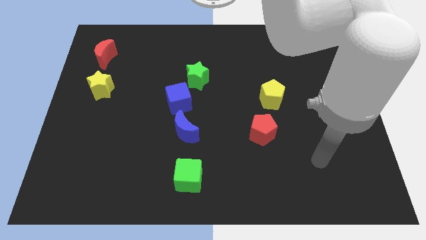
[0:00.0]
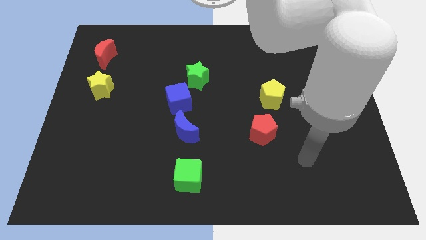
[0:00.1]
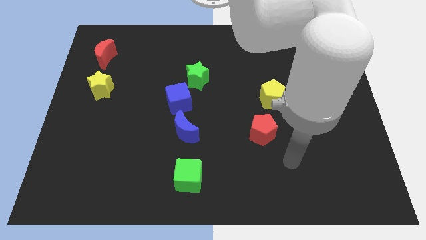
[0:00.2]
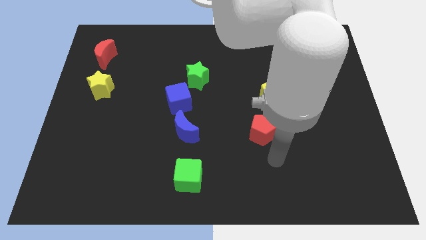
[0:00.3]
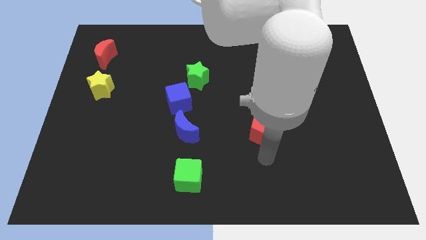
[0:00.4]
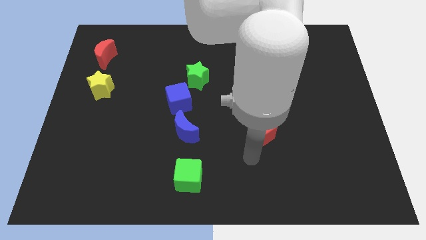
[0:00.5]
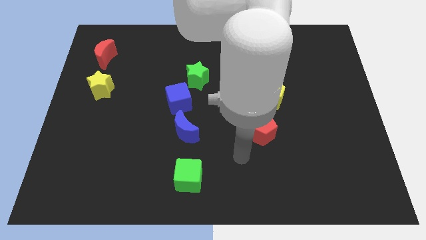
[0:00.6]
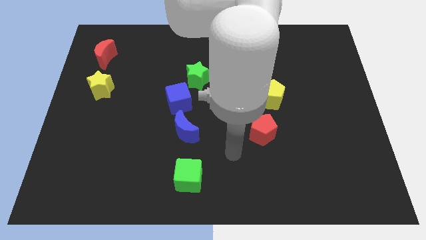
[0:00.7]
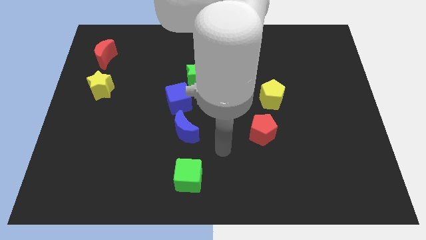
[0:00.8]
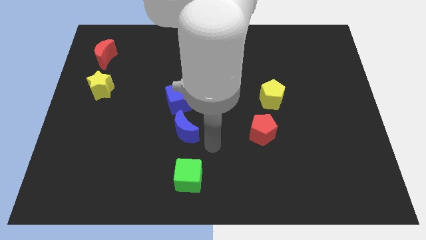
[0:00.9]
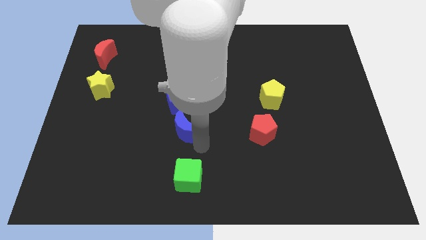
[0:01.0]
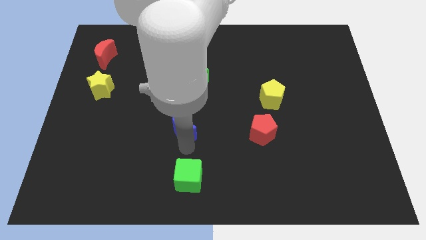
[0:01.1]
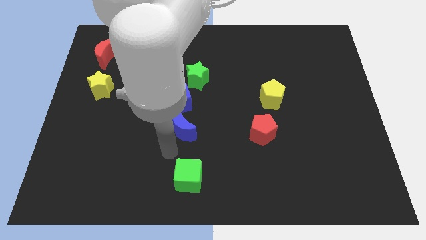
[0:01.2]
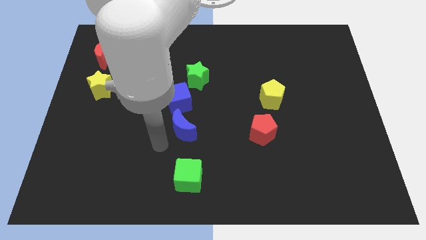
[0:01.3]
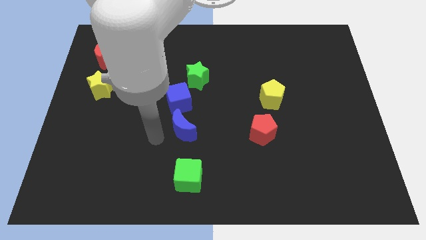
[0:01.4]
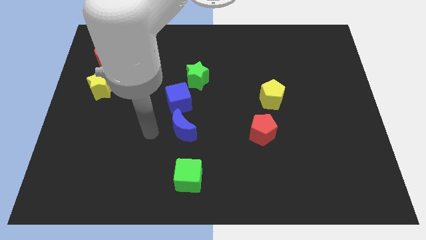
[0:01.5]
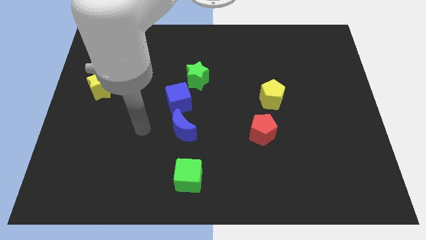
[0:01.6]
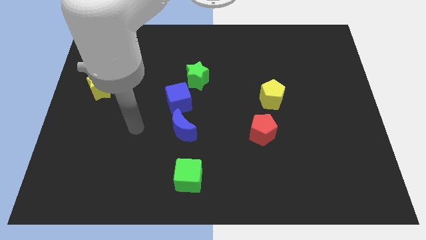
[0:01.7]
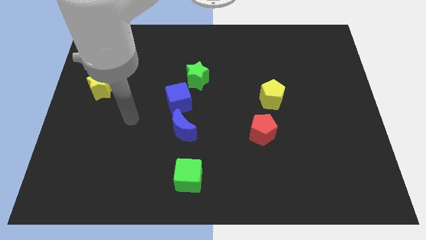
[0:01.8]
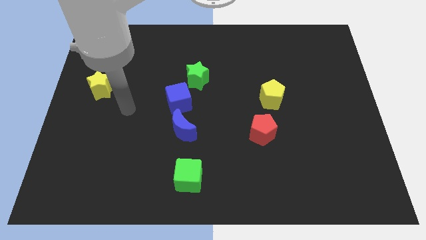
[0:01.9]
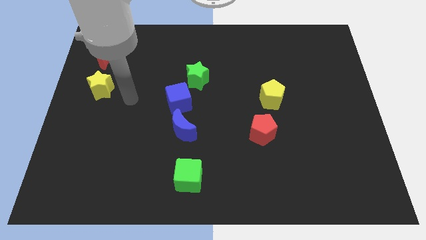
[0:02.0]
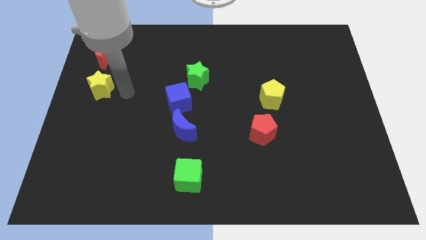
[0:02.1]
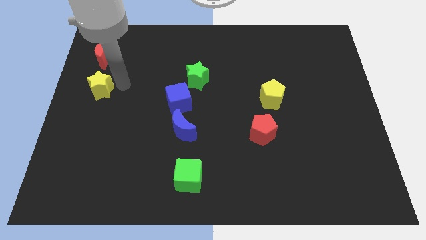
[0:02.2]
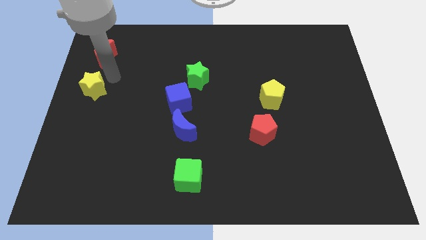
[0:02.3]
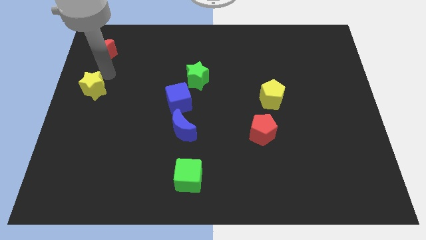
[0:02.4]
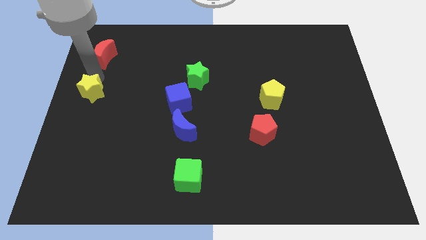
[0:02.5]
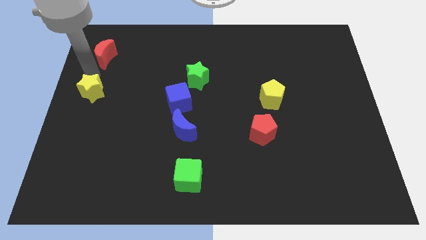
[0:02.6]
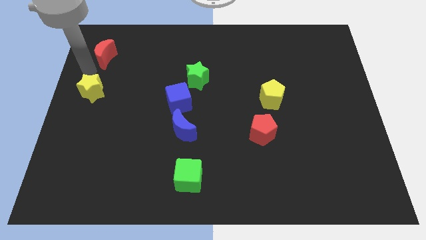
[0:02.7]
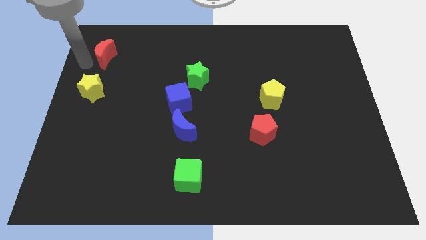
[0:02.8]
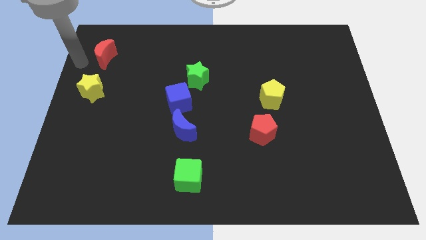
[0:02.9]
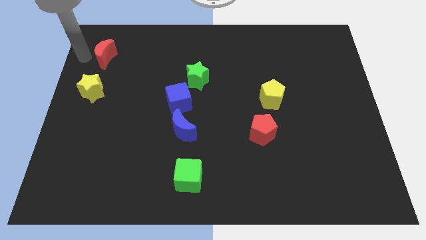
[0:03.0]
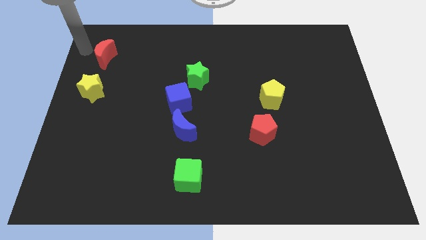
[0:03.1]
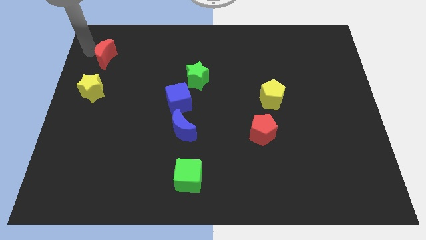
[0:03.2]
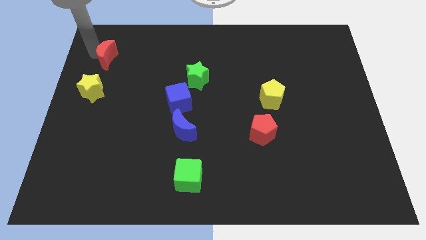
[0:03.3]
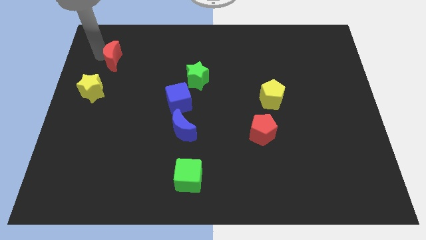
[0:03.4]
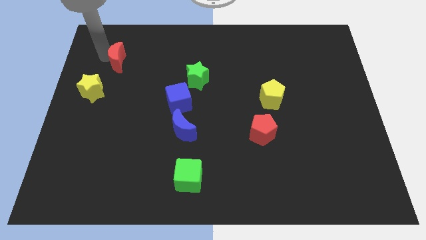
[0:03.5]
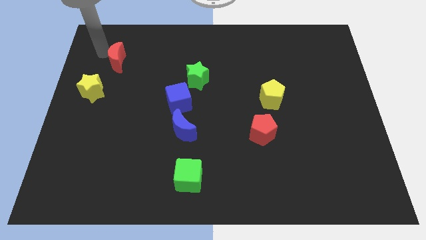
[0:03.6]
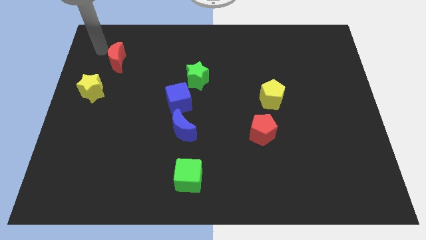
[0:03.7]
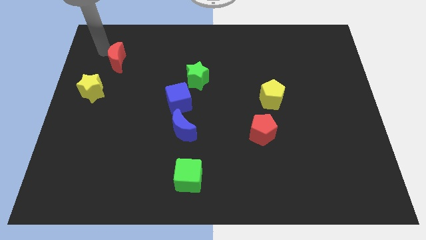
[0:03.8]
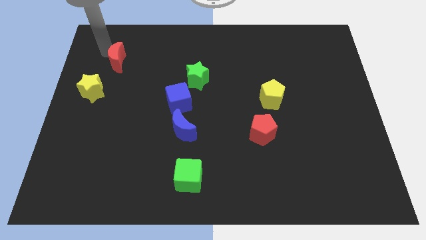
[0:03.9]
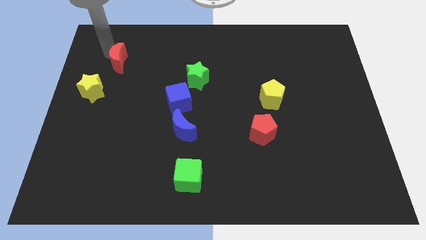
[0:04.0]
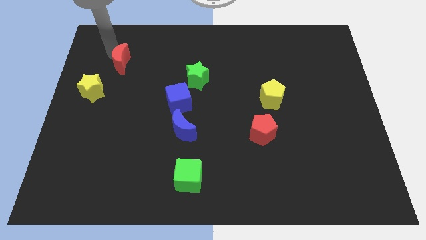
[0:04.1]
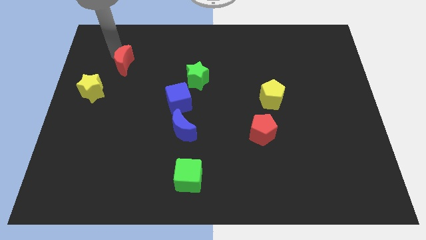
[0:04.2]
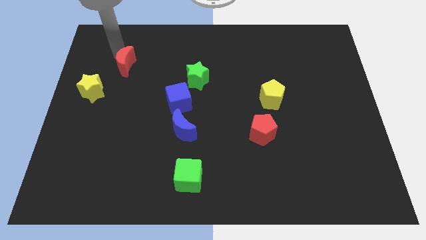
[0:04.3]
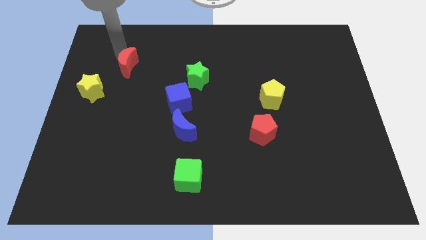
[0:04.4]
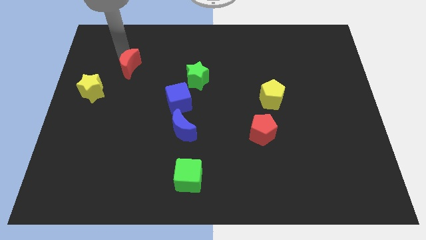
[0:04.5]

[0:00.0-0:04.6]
slightly move the red moon down and right

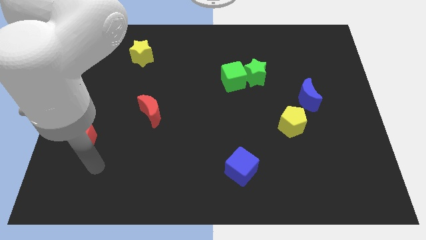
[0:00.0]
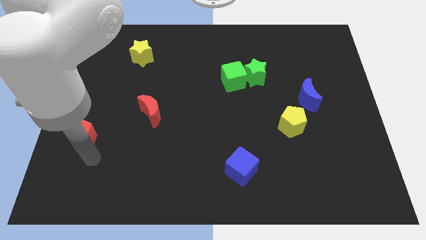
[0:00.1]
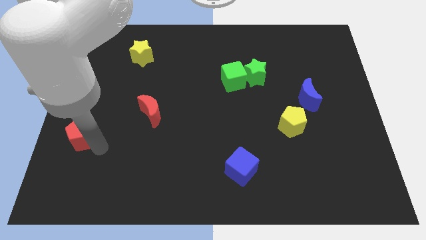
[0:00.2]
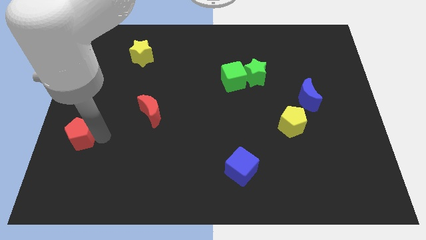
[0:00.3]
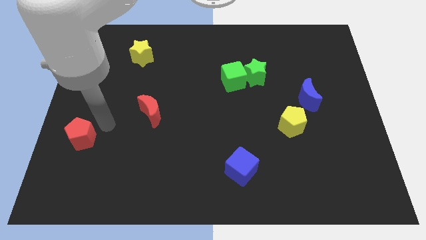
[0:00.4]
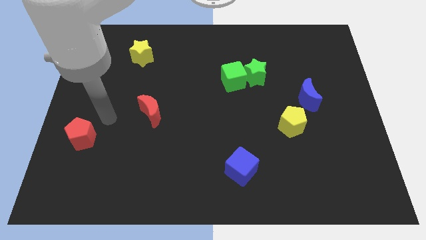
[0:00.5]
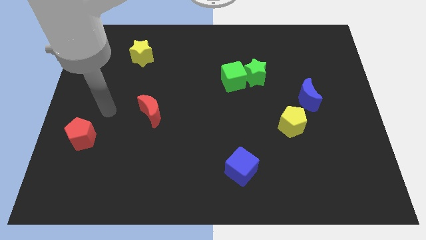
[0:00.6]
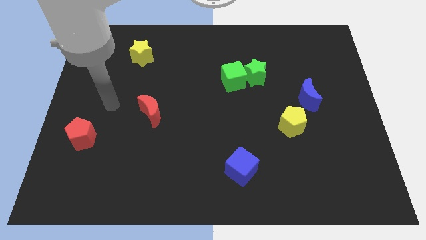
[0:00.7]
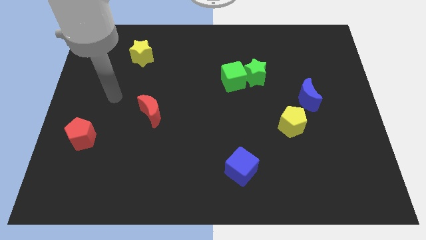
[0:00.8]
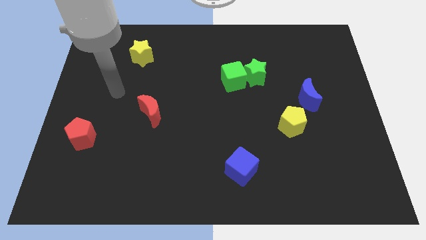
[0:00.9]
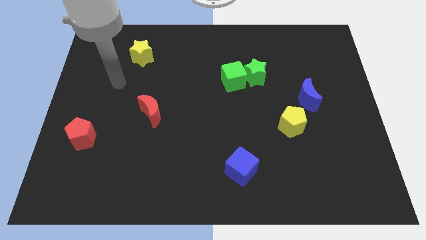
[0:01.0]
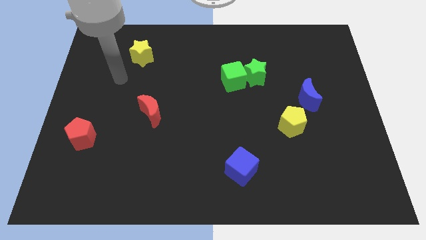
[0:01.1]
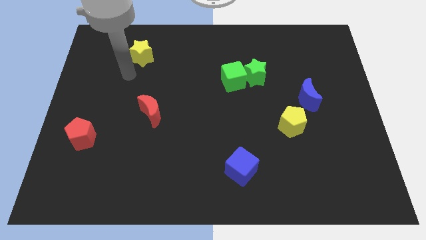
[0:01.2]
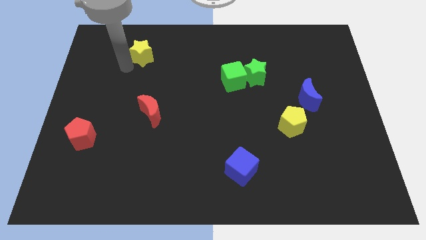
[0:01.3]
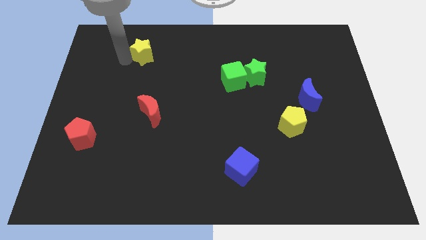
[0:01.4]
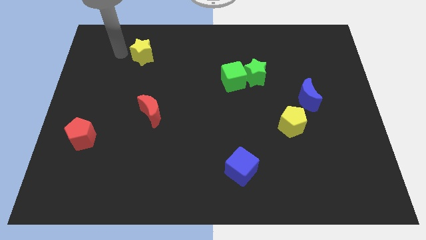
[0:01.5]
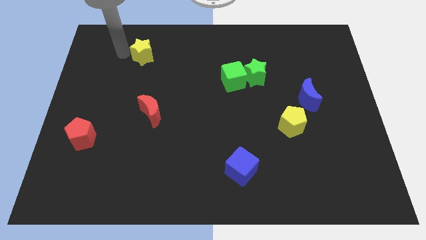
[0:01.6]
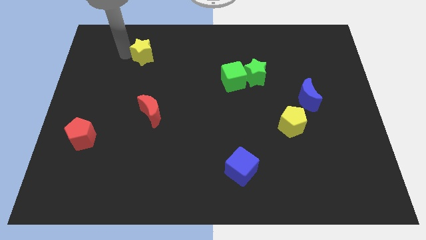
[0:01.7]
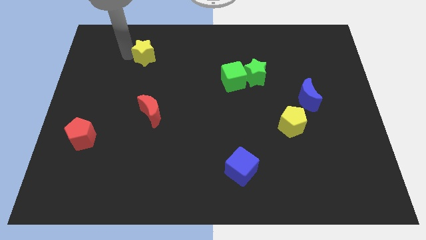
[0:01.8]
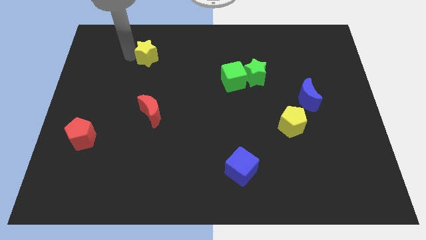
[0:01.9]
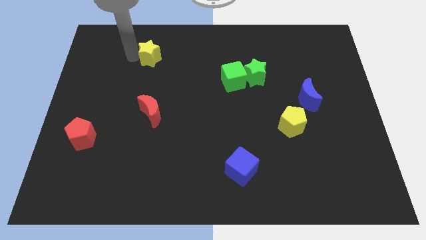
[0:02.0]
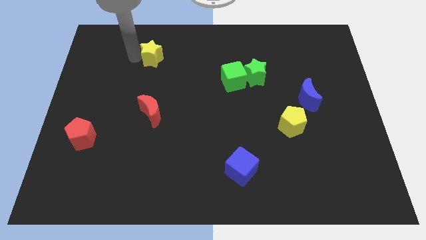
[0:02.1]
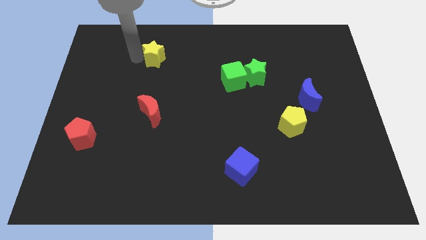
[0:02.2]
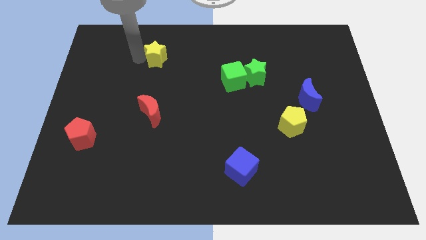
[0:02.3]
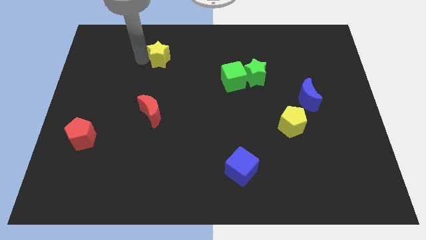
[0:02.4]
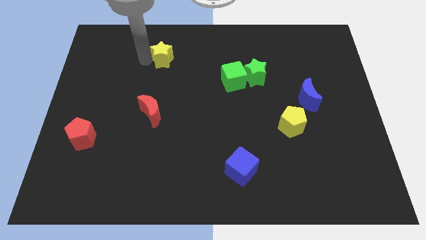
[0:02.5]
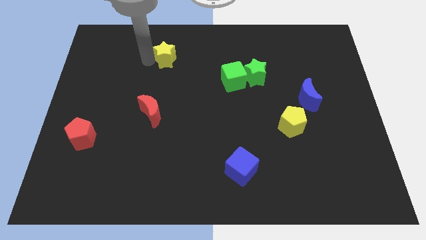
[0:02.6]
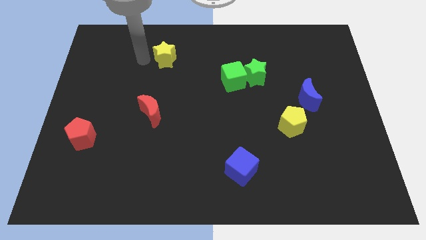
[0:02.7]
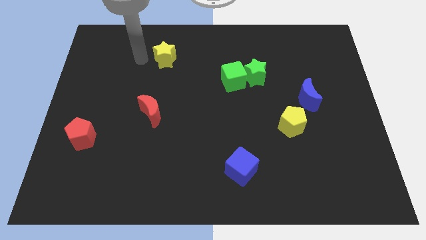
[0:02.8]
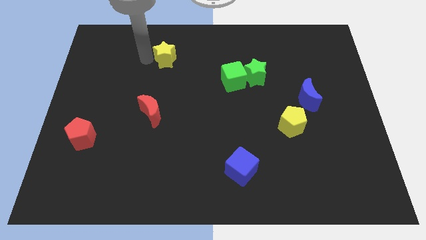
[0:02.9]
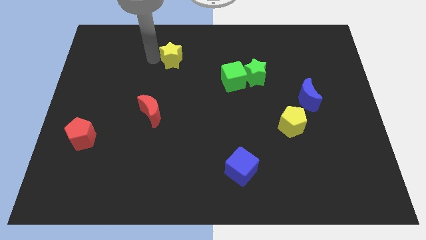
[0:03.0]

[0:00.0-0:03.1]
push the yellow star to the right a little
